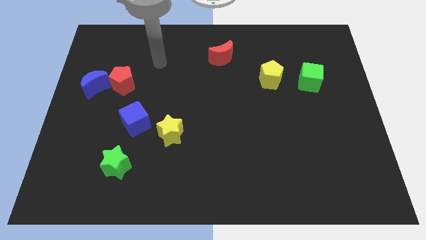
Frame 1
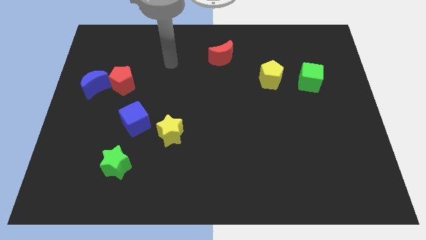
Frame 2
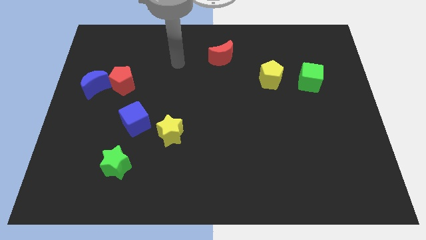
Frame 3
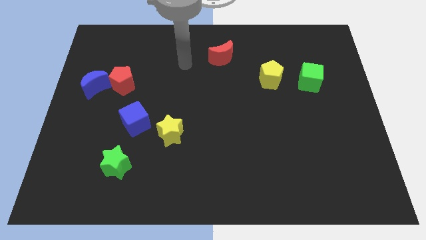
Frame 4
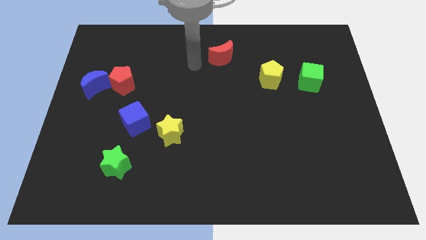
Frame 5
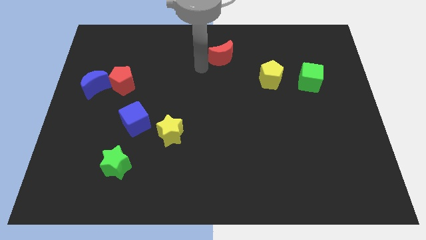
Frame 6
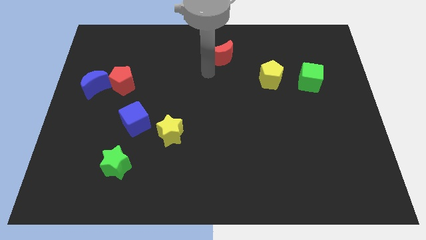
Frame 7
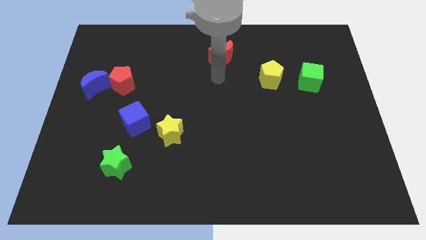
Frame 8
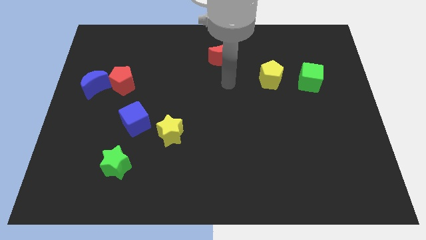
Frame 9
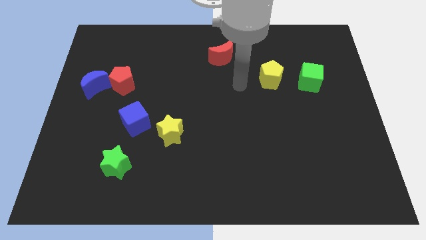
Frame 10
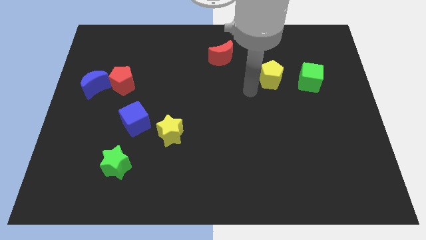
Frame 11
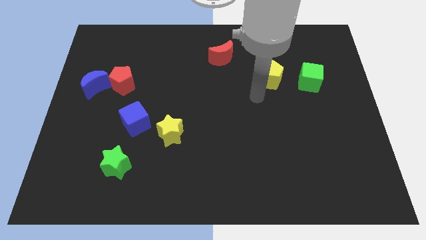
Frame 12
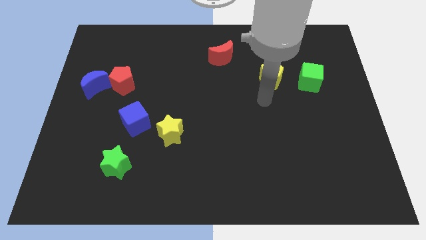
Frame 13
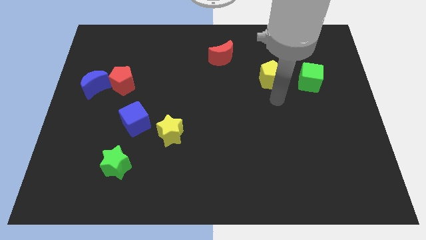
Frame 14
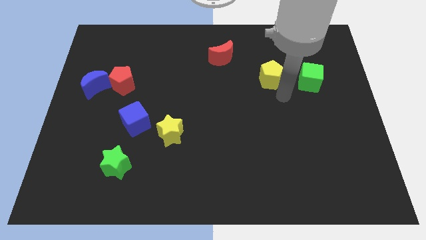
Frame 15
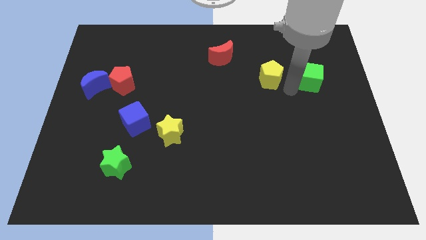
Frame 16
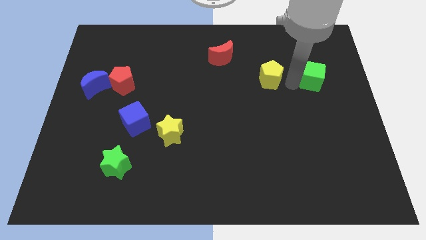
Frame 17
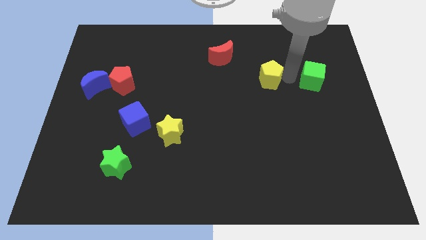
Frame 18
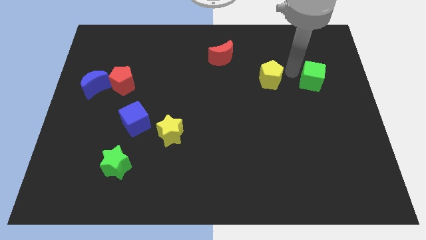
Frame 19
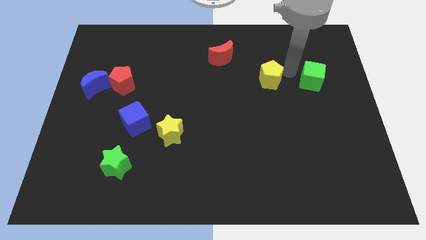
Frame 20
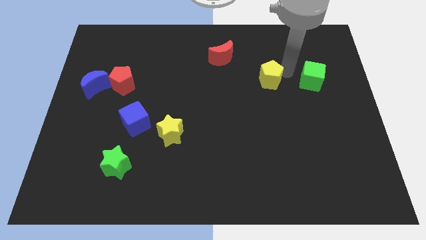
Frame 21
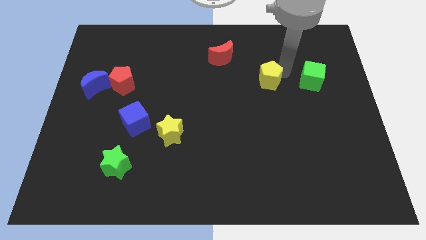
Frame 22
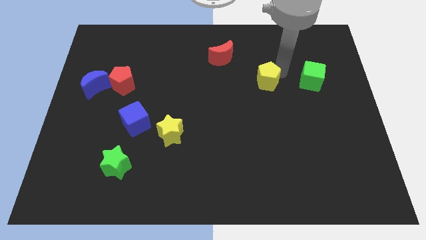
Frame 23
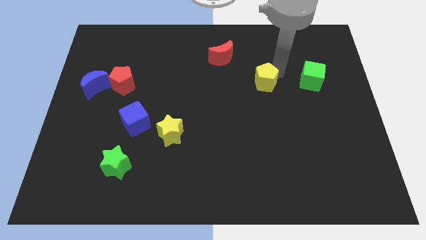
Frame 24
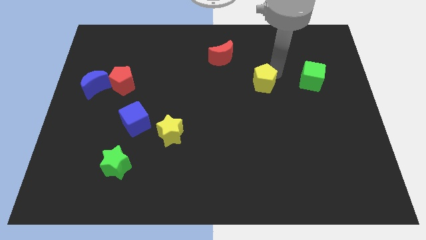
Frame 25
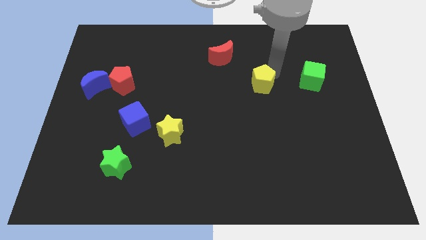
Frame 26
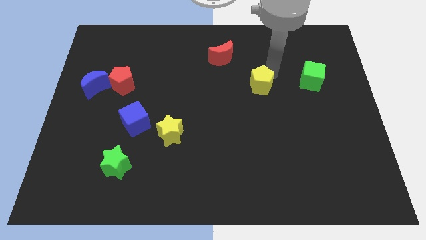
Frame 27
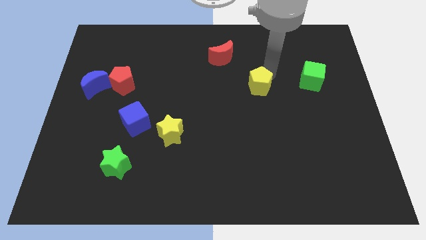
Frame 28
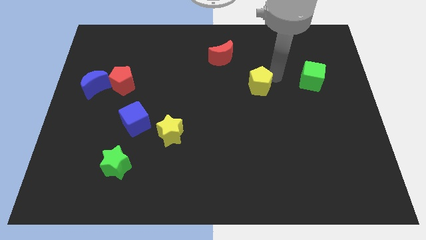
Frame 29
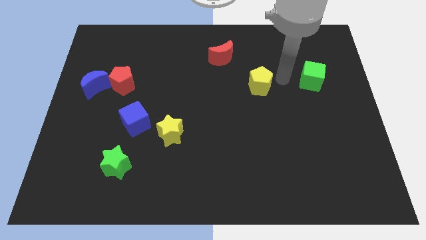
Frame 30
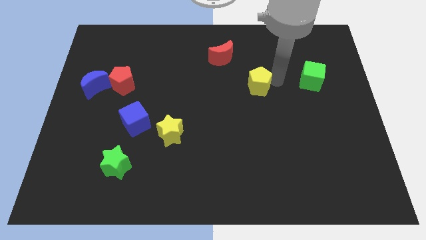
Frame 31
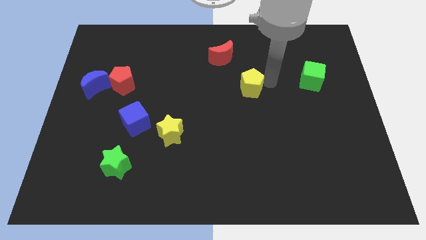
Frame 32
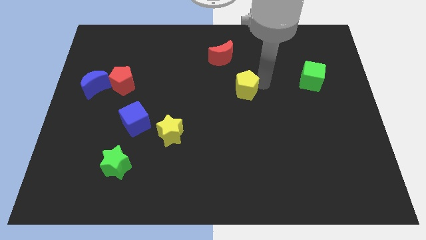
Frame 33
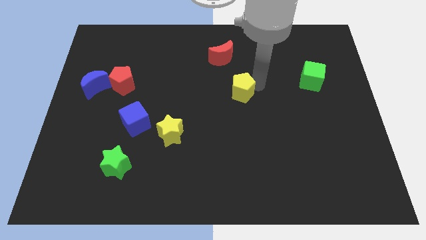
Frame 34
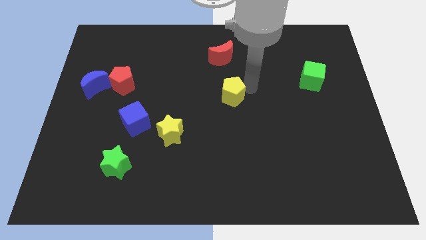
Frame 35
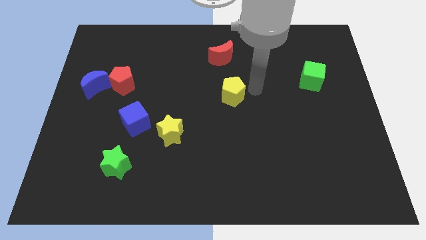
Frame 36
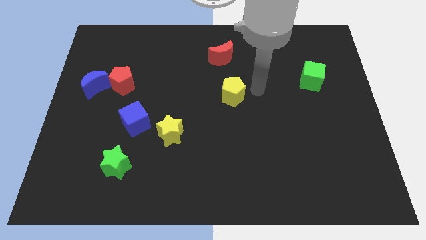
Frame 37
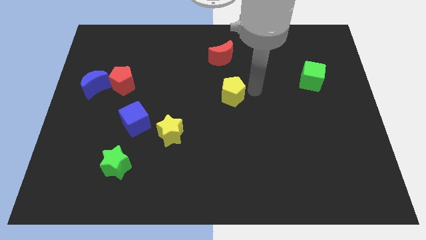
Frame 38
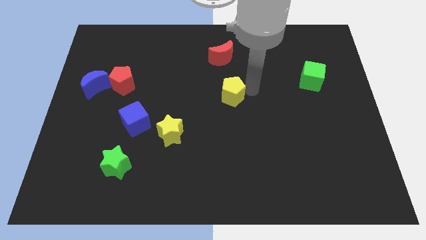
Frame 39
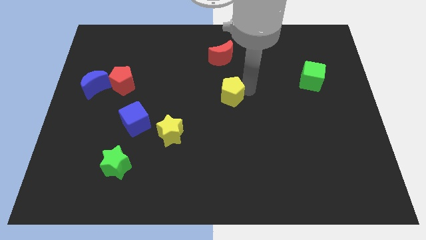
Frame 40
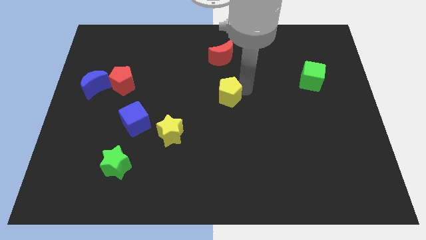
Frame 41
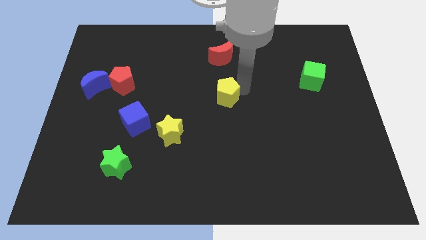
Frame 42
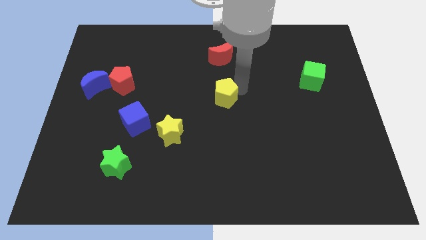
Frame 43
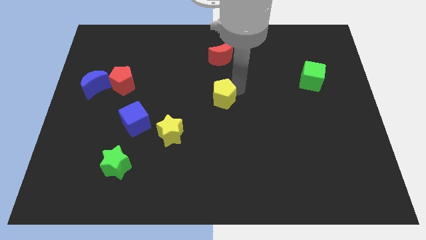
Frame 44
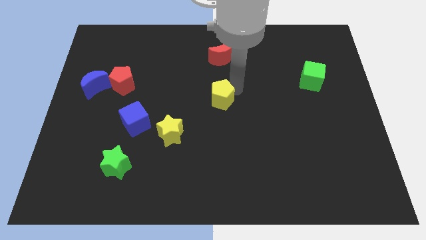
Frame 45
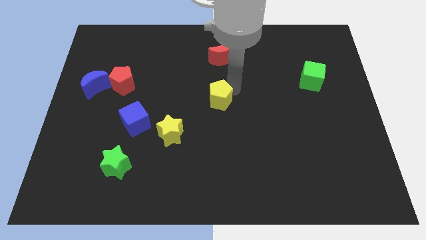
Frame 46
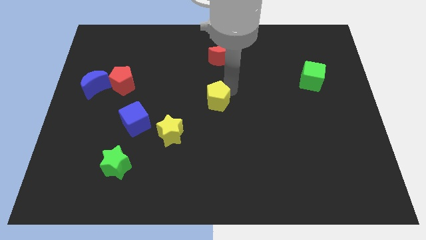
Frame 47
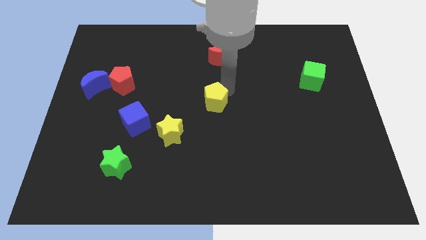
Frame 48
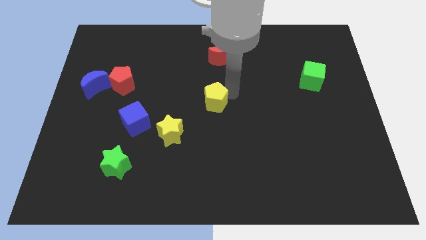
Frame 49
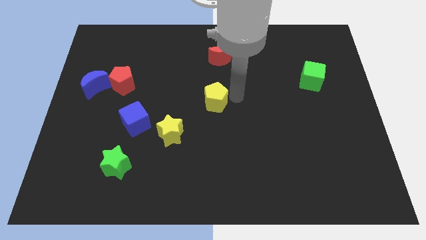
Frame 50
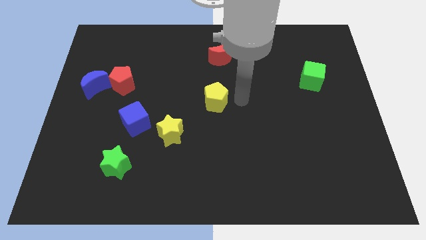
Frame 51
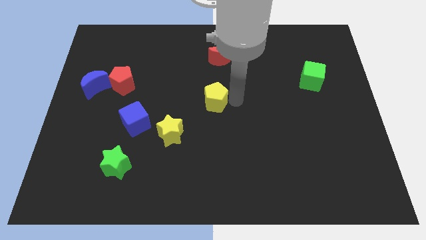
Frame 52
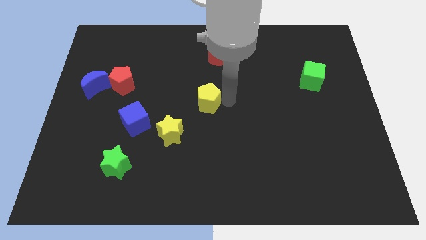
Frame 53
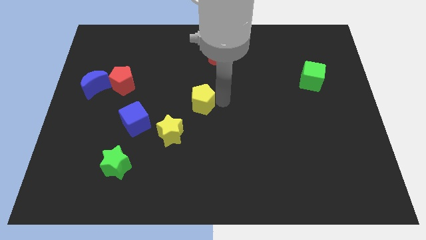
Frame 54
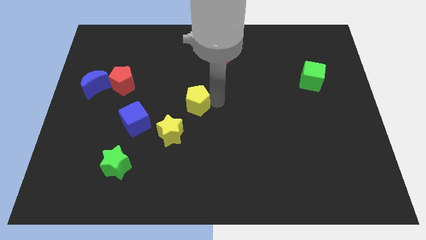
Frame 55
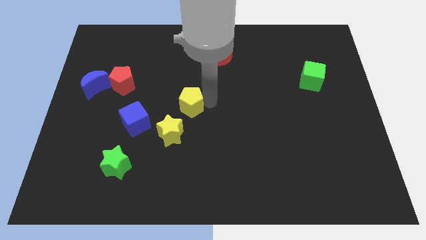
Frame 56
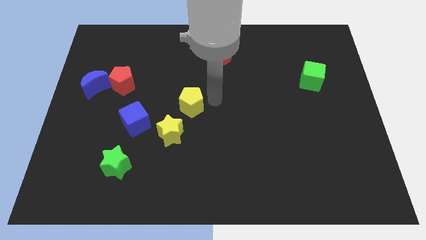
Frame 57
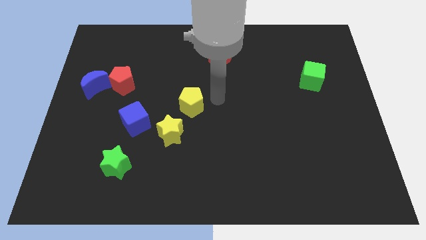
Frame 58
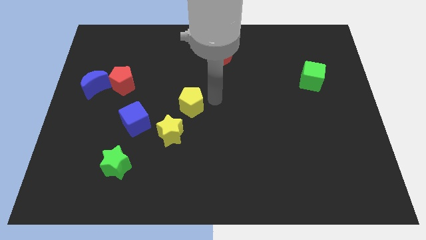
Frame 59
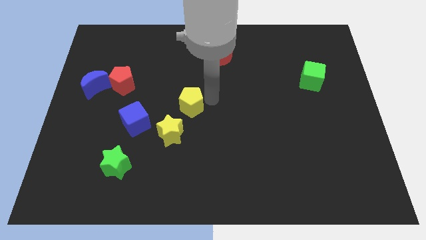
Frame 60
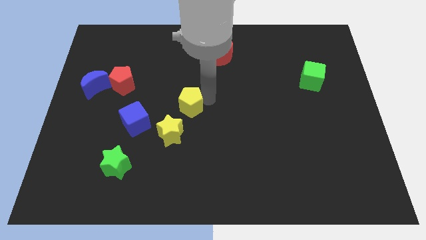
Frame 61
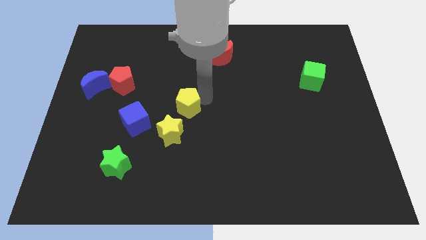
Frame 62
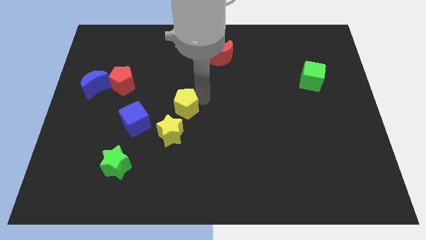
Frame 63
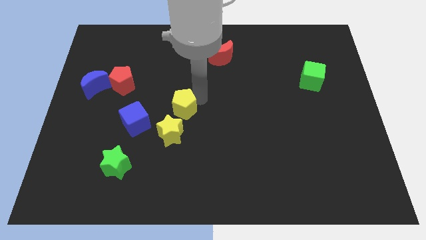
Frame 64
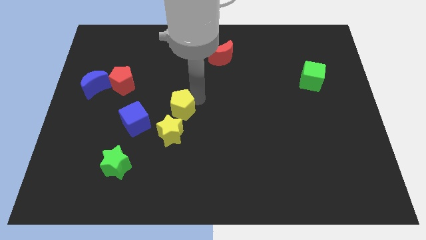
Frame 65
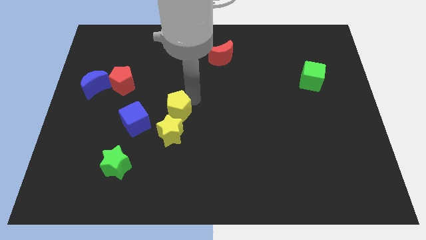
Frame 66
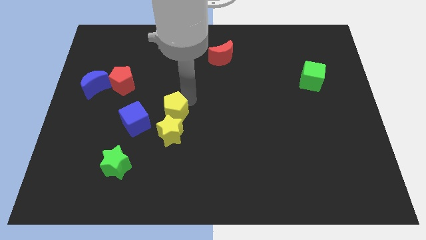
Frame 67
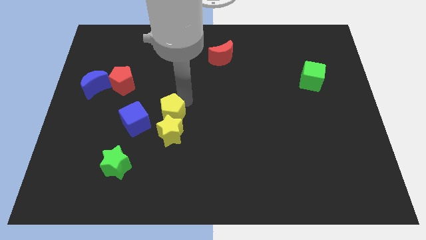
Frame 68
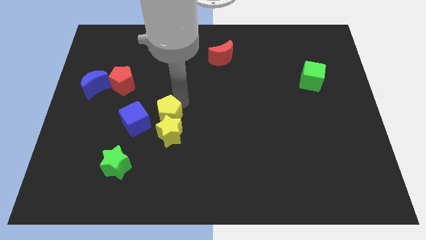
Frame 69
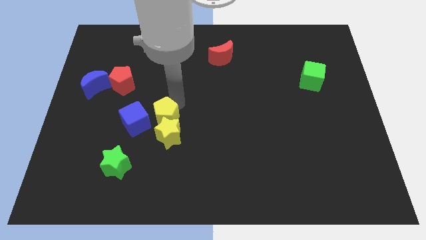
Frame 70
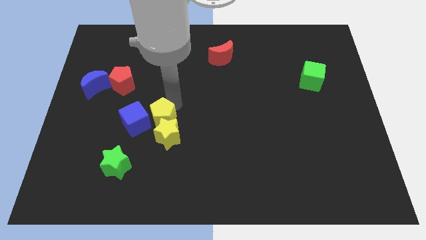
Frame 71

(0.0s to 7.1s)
push the yellow pentagon next to the blue cube
